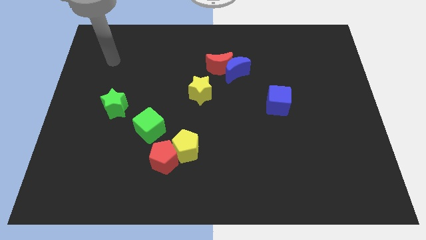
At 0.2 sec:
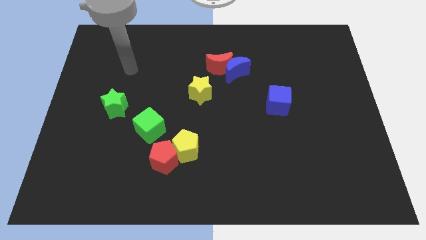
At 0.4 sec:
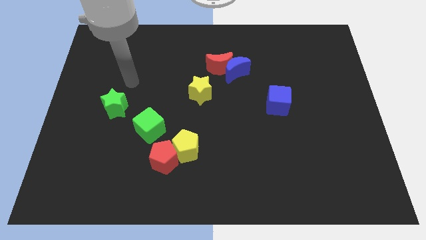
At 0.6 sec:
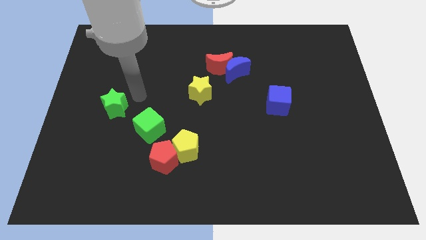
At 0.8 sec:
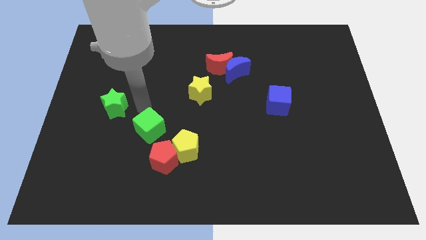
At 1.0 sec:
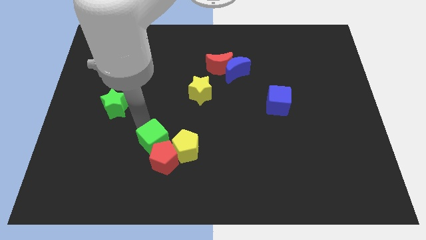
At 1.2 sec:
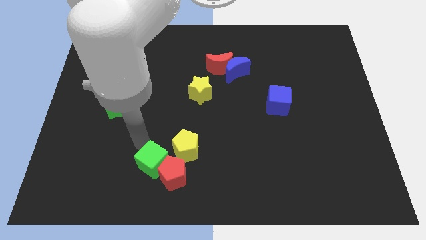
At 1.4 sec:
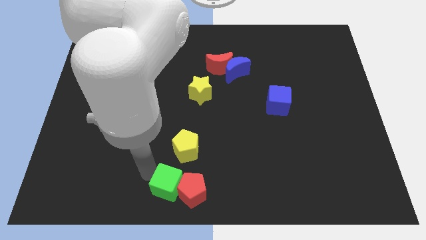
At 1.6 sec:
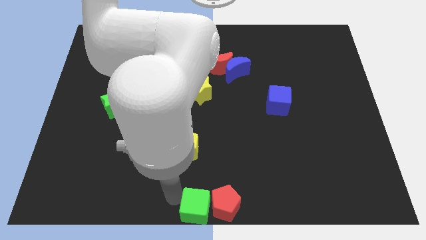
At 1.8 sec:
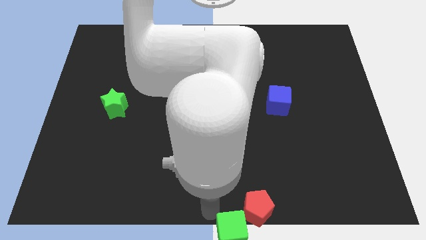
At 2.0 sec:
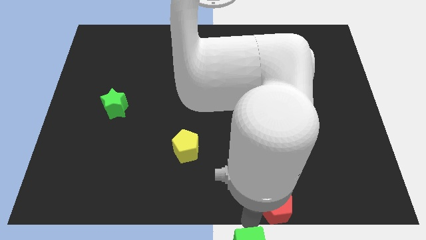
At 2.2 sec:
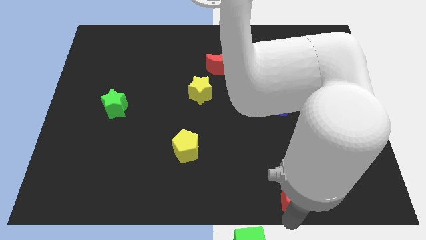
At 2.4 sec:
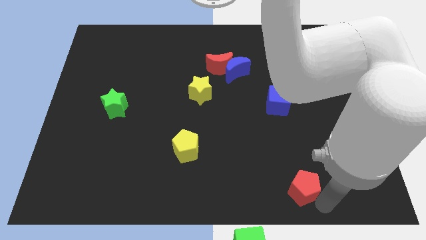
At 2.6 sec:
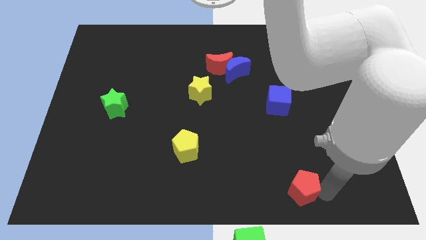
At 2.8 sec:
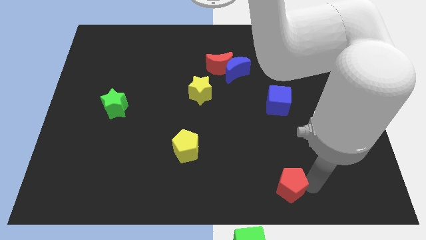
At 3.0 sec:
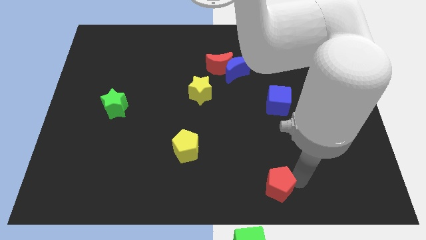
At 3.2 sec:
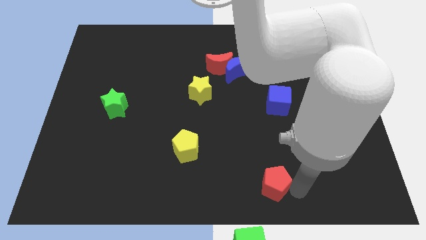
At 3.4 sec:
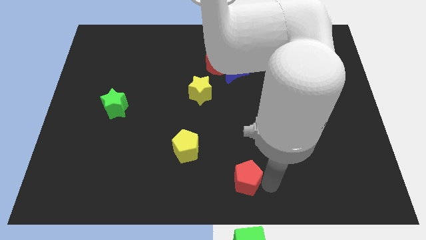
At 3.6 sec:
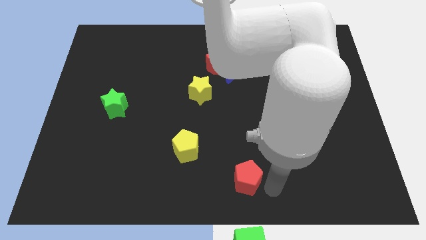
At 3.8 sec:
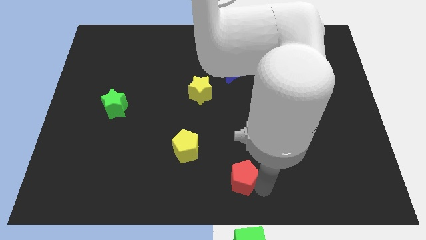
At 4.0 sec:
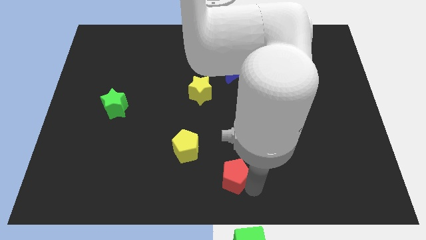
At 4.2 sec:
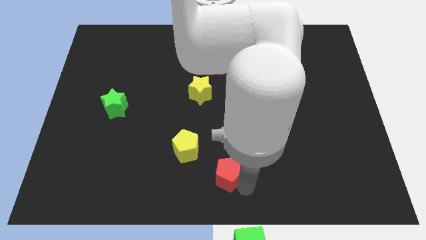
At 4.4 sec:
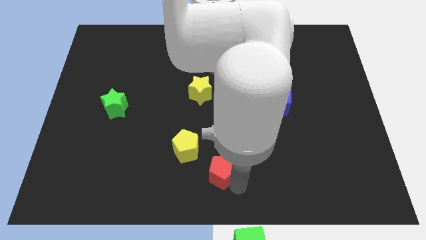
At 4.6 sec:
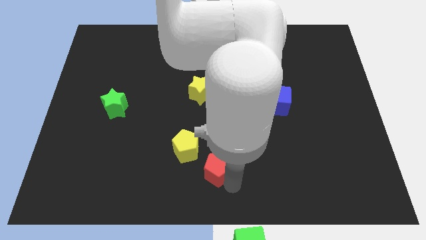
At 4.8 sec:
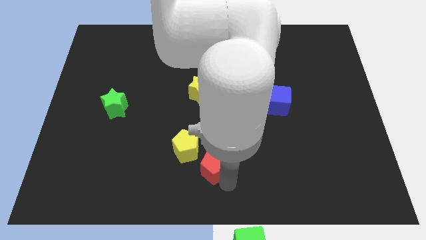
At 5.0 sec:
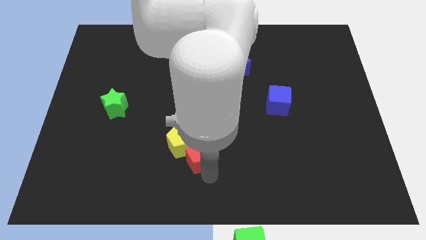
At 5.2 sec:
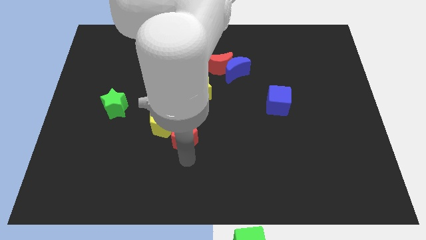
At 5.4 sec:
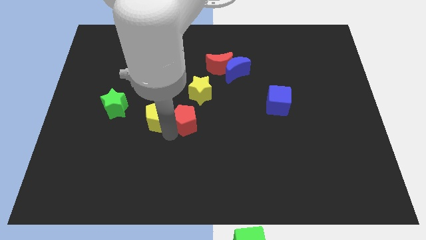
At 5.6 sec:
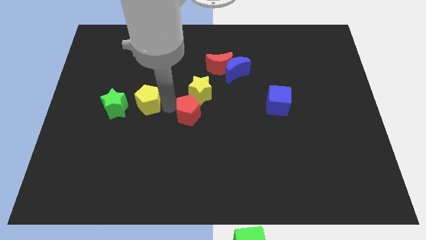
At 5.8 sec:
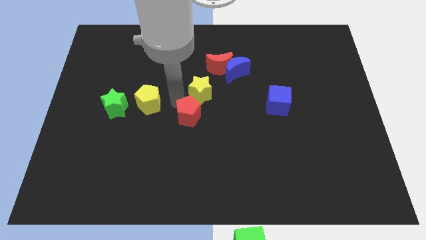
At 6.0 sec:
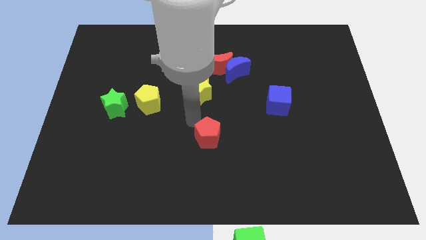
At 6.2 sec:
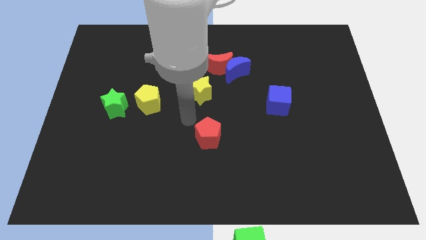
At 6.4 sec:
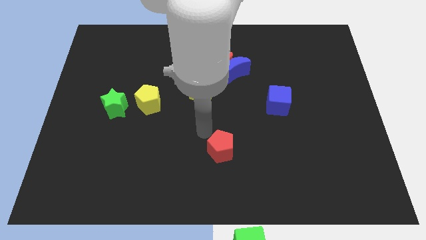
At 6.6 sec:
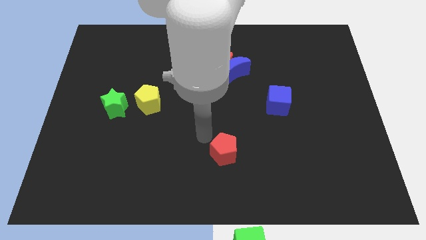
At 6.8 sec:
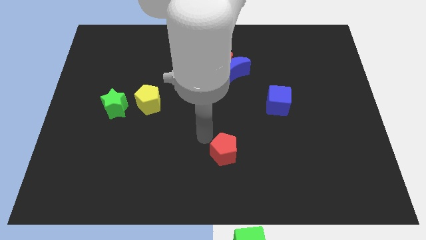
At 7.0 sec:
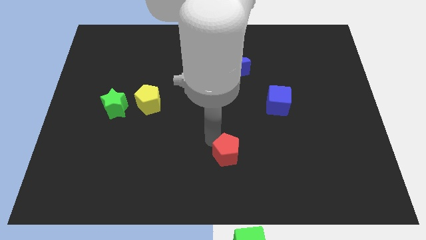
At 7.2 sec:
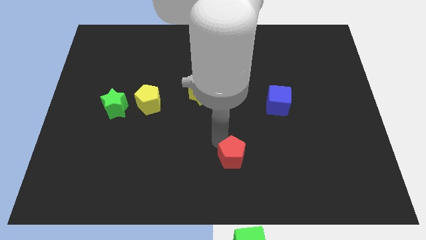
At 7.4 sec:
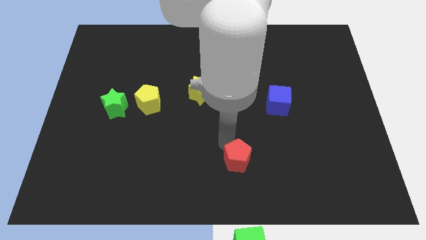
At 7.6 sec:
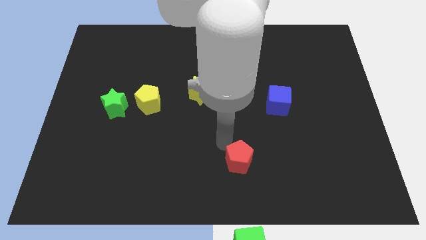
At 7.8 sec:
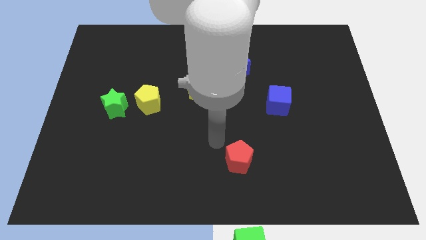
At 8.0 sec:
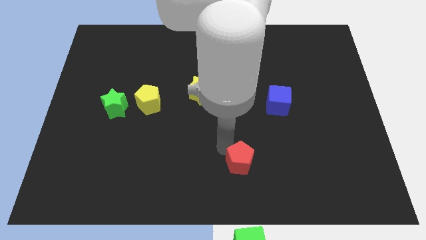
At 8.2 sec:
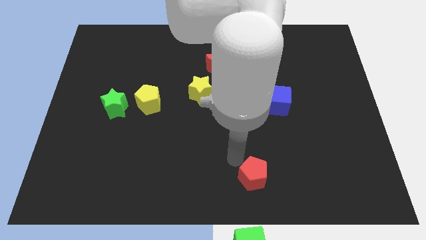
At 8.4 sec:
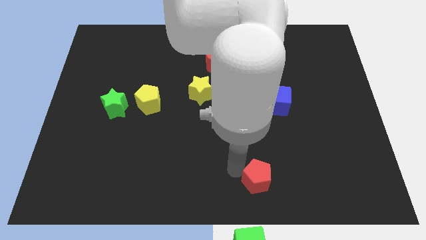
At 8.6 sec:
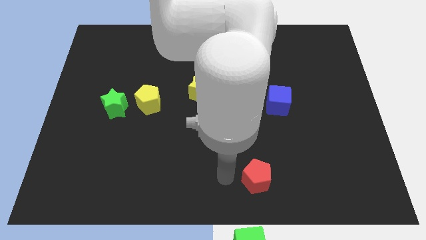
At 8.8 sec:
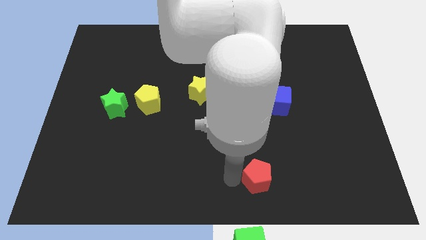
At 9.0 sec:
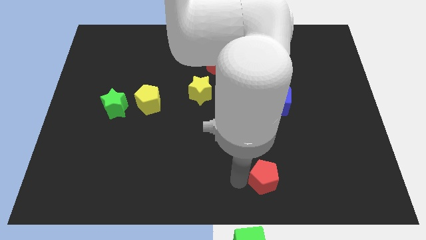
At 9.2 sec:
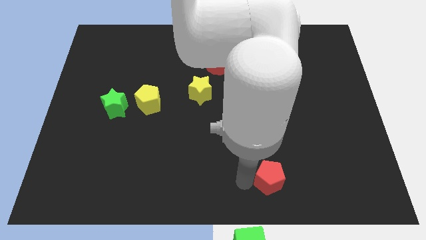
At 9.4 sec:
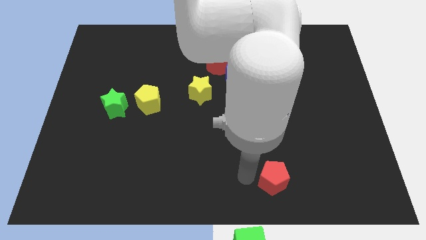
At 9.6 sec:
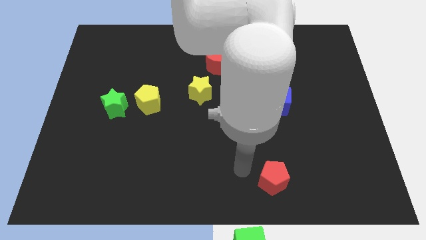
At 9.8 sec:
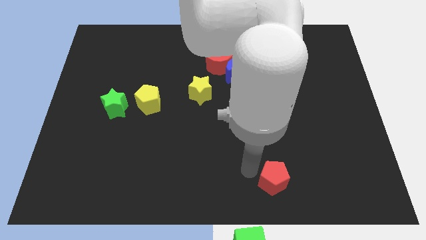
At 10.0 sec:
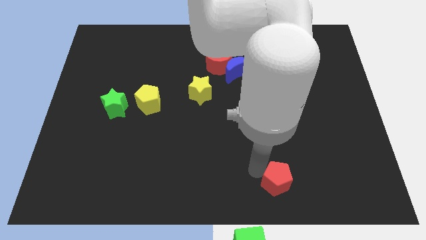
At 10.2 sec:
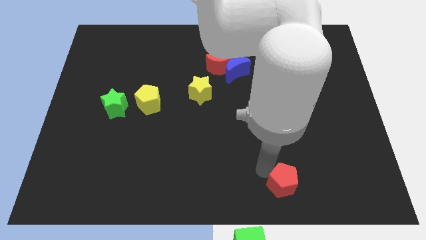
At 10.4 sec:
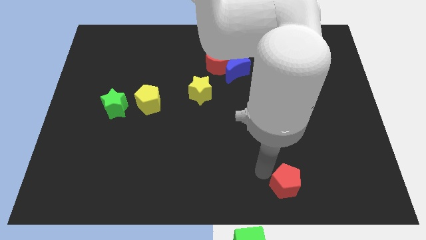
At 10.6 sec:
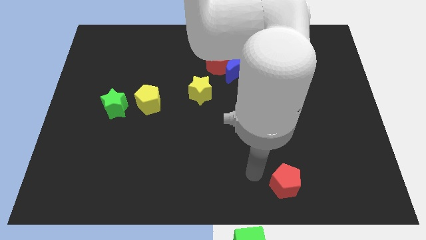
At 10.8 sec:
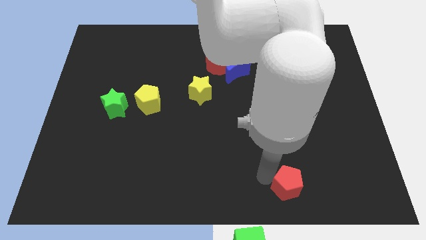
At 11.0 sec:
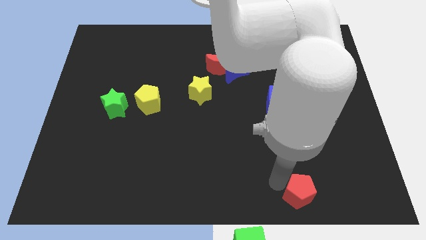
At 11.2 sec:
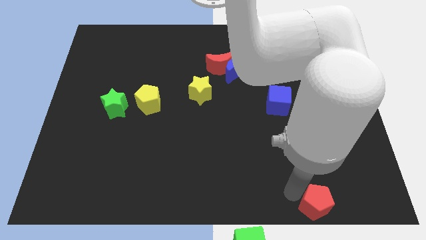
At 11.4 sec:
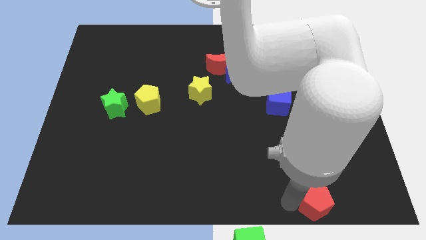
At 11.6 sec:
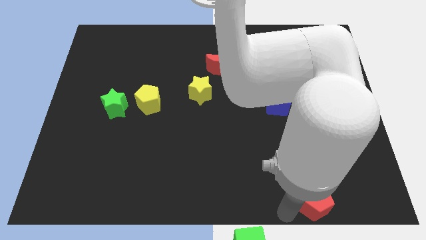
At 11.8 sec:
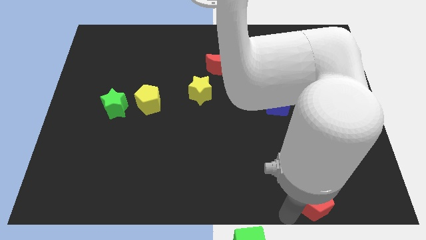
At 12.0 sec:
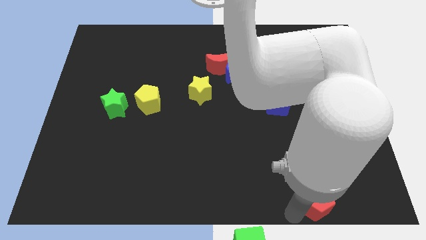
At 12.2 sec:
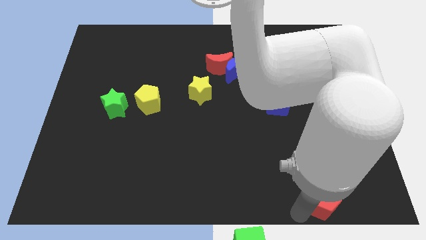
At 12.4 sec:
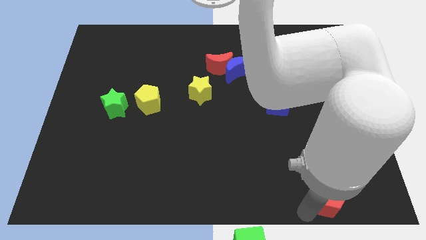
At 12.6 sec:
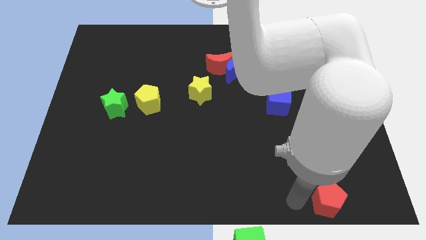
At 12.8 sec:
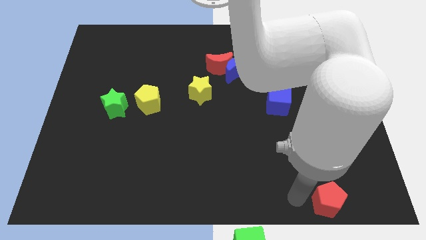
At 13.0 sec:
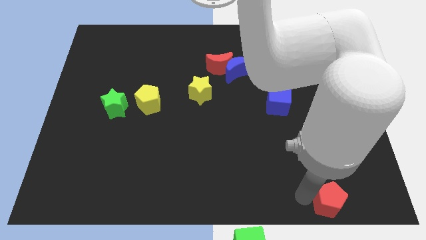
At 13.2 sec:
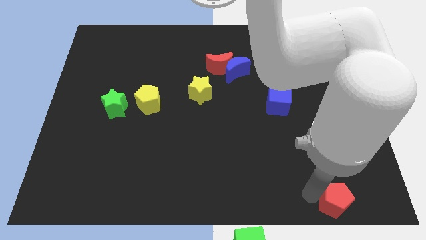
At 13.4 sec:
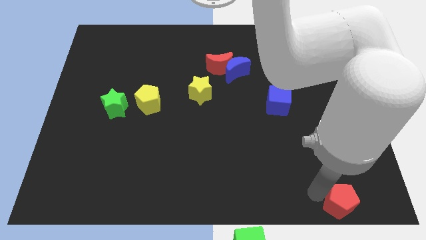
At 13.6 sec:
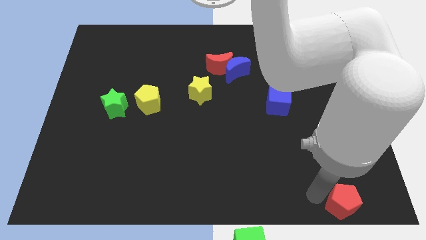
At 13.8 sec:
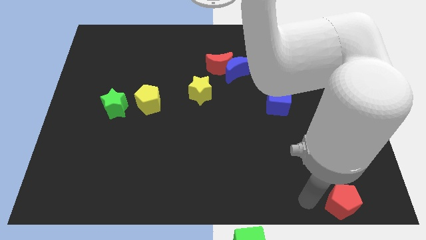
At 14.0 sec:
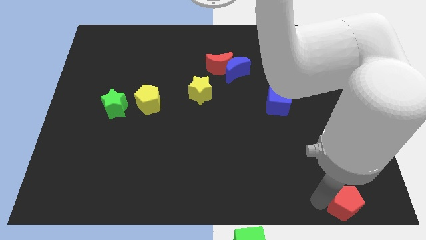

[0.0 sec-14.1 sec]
put the red pentagon to the bottom right of the board

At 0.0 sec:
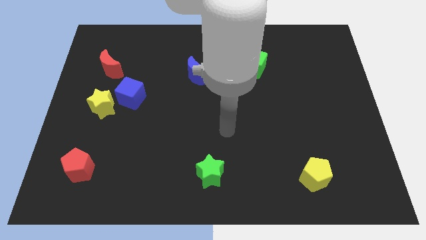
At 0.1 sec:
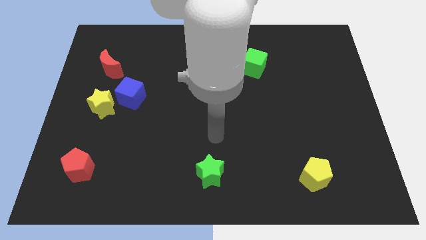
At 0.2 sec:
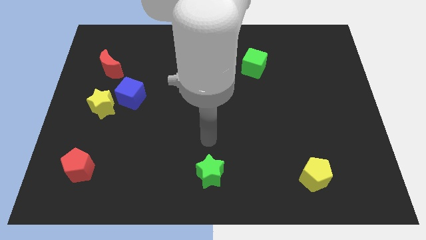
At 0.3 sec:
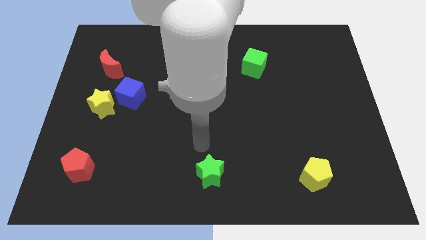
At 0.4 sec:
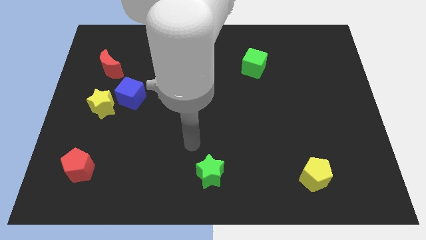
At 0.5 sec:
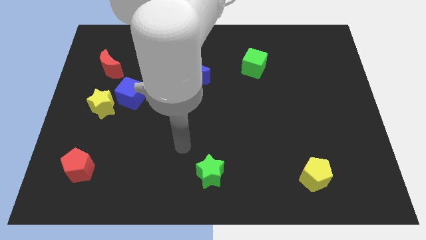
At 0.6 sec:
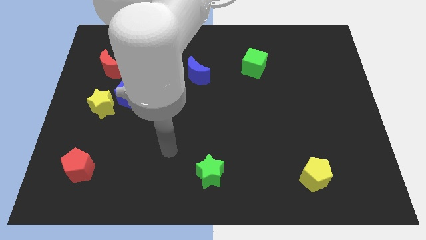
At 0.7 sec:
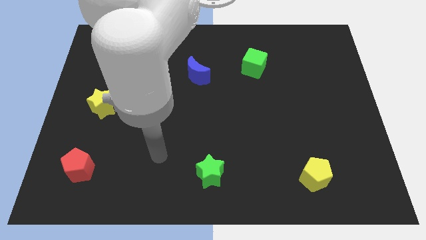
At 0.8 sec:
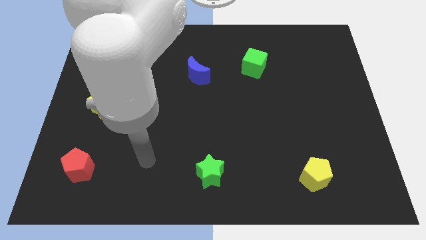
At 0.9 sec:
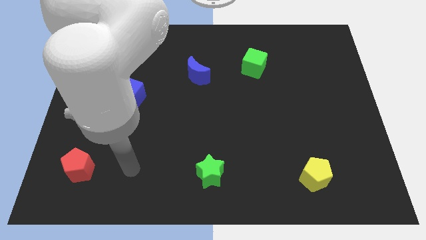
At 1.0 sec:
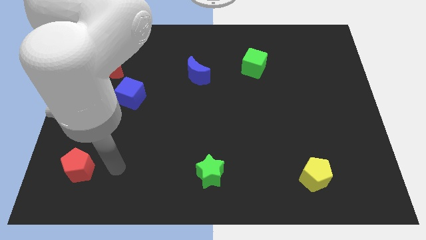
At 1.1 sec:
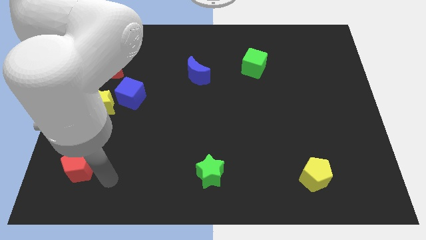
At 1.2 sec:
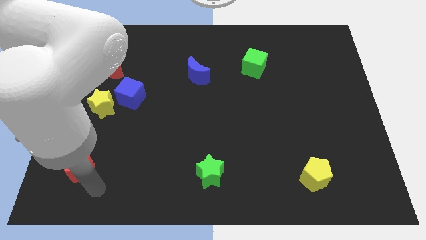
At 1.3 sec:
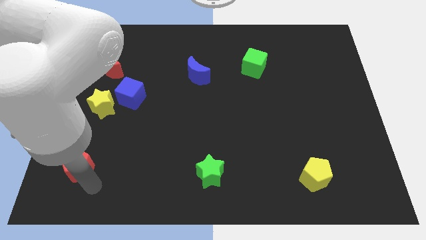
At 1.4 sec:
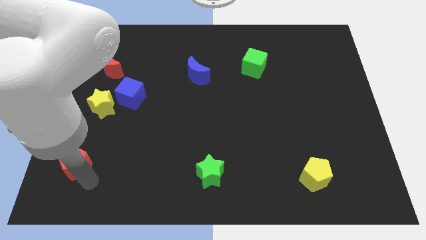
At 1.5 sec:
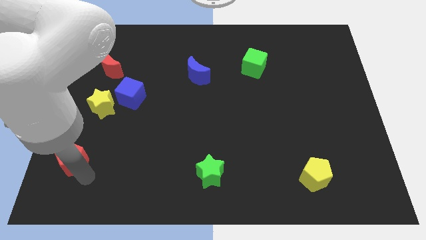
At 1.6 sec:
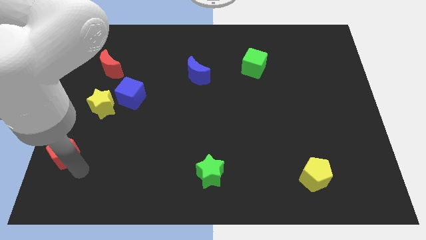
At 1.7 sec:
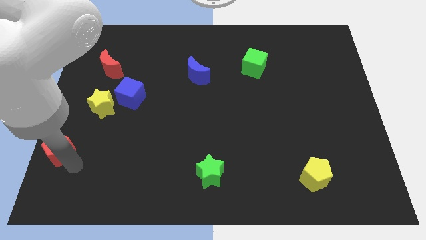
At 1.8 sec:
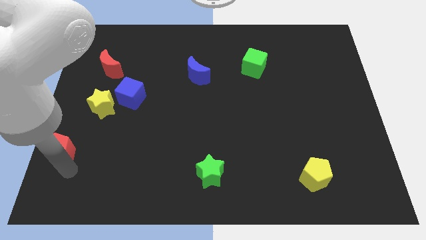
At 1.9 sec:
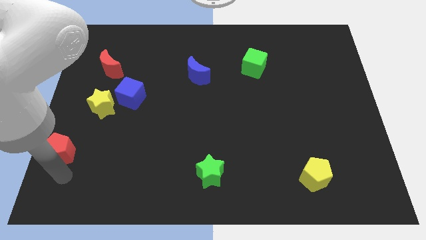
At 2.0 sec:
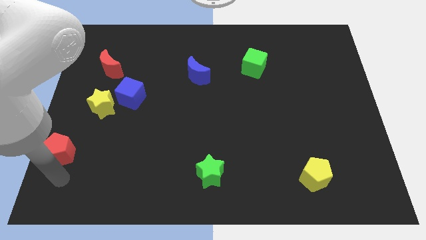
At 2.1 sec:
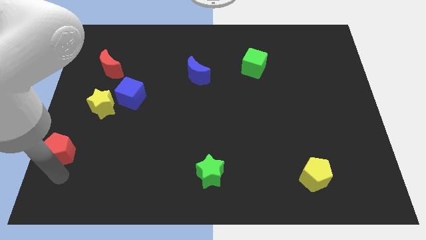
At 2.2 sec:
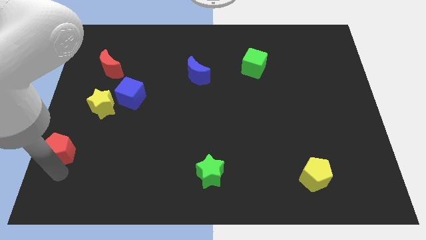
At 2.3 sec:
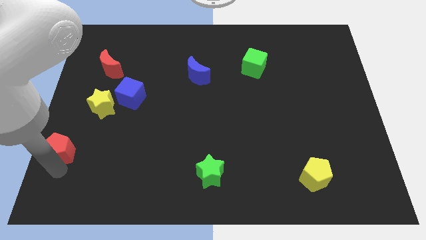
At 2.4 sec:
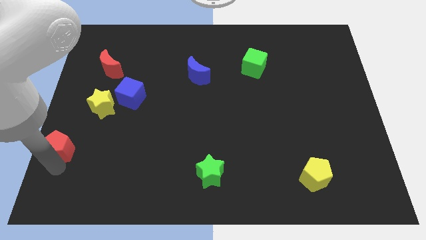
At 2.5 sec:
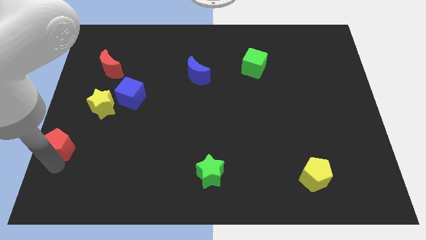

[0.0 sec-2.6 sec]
push the red pentagon to the left side
